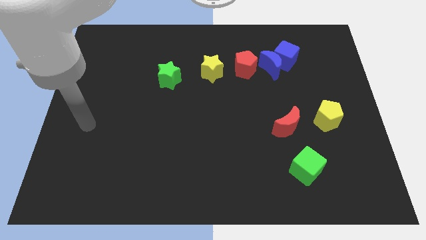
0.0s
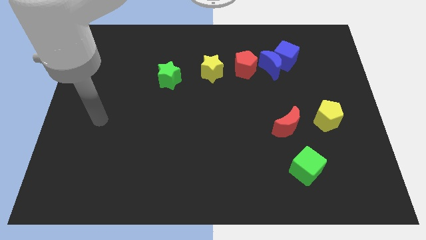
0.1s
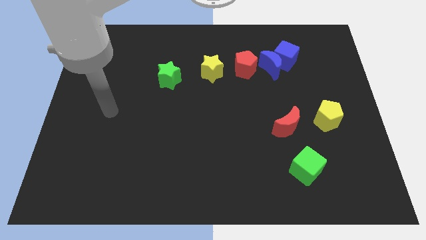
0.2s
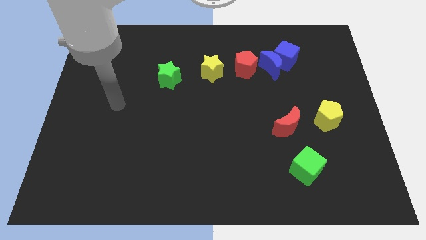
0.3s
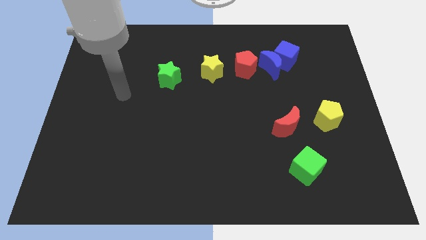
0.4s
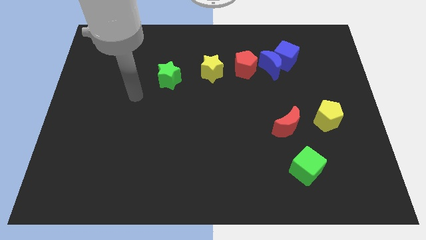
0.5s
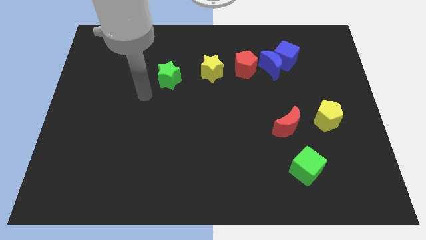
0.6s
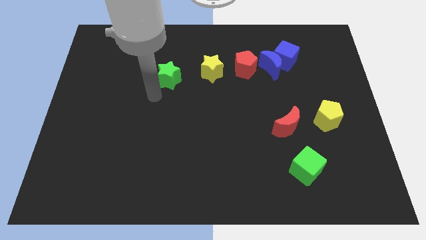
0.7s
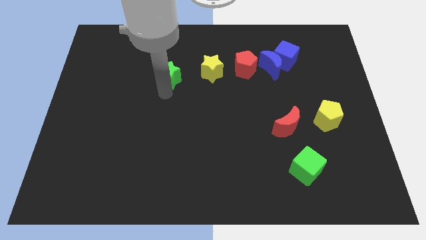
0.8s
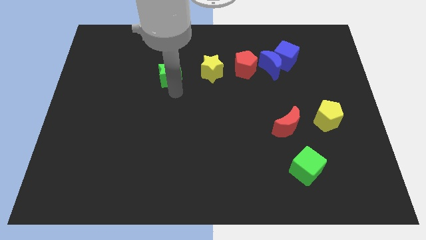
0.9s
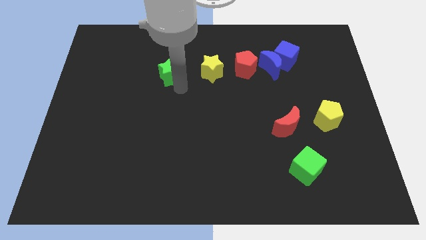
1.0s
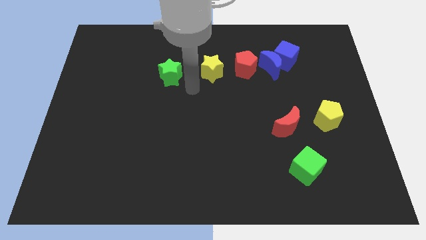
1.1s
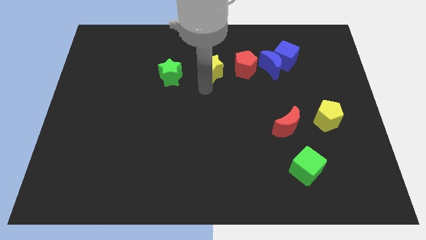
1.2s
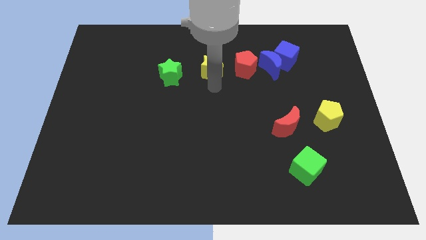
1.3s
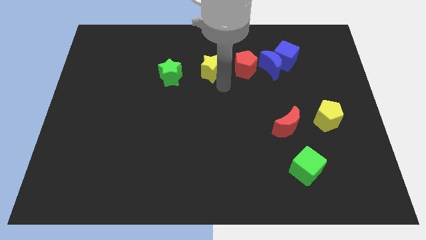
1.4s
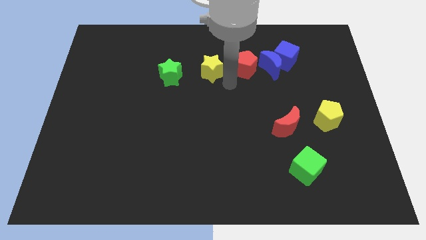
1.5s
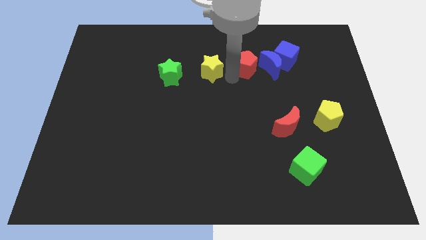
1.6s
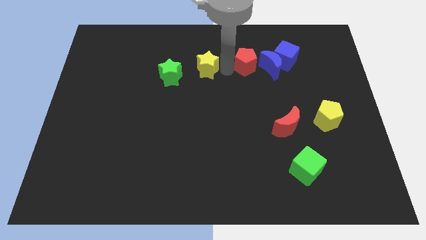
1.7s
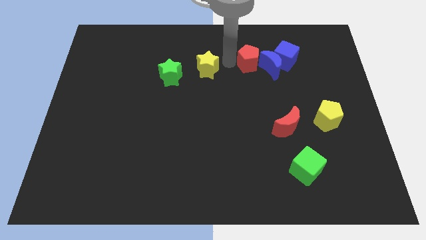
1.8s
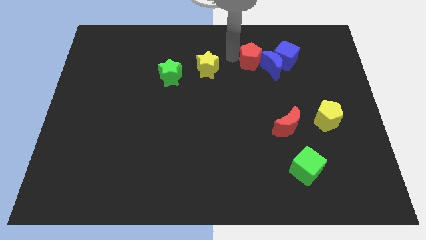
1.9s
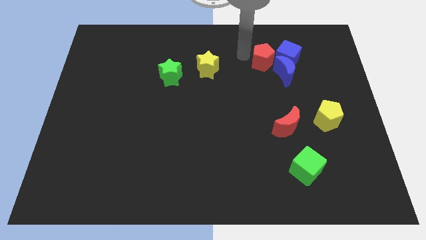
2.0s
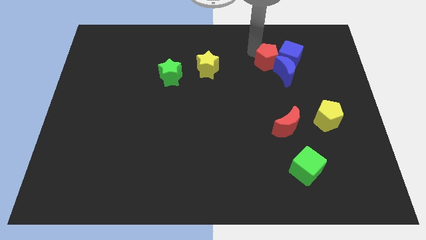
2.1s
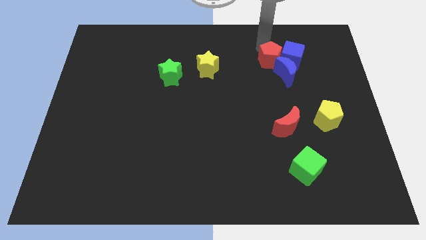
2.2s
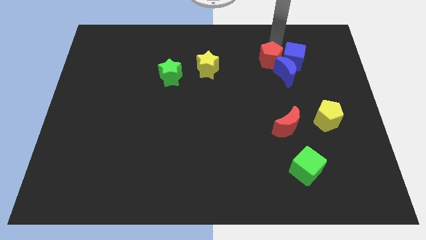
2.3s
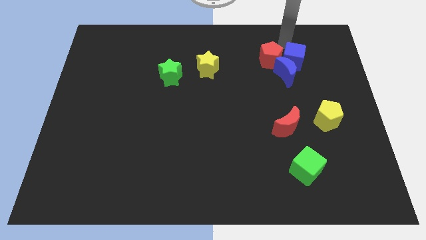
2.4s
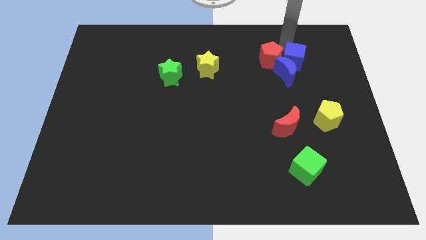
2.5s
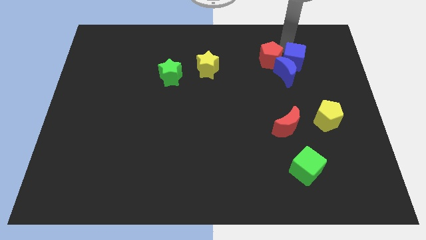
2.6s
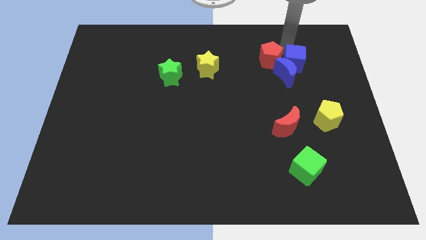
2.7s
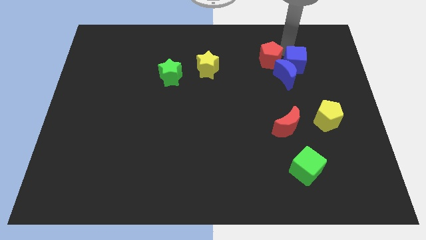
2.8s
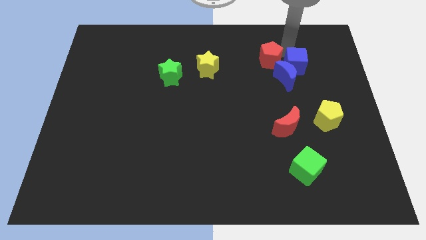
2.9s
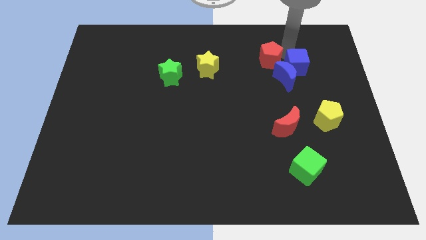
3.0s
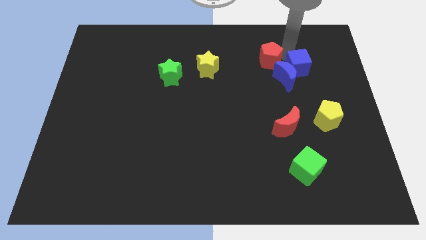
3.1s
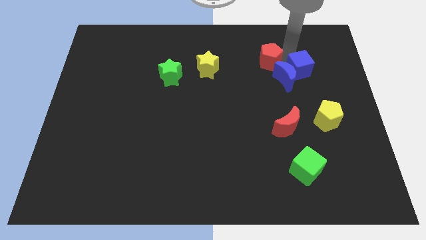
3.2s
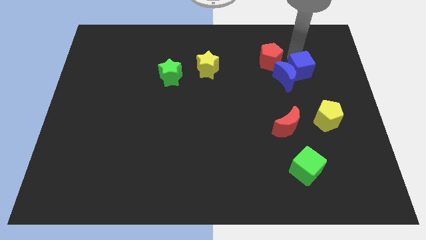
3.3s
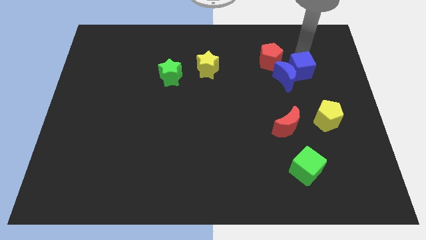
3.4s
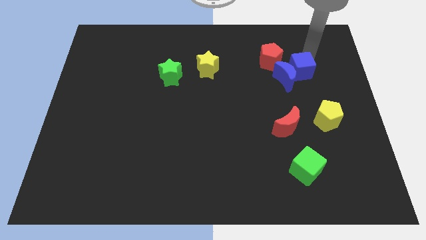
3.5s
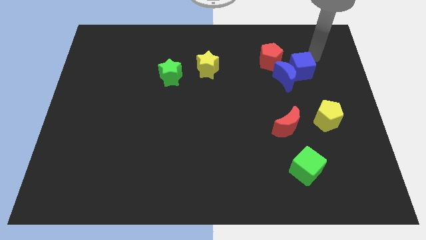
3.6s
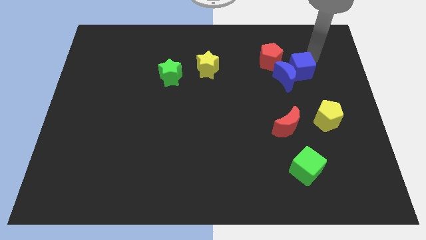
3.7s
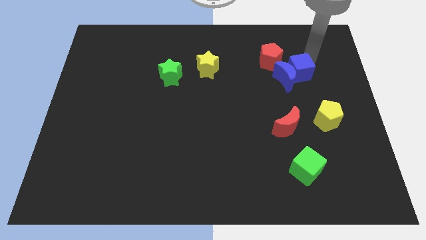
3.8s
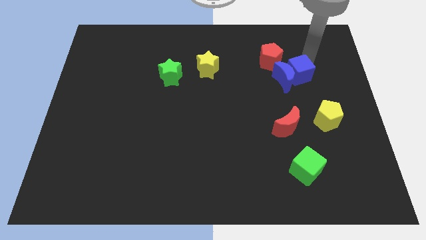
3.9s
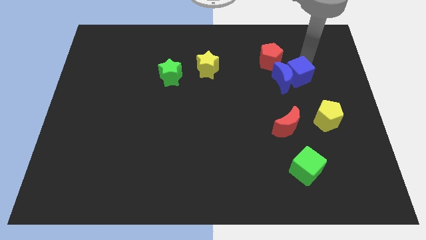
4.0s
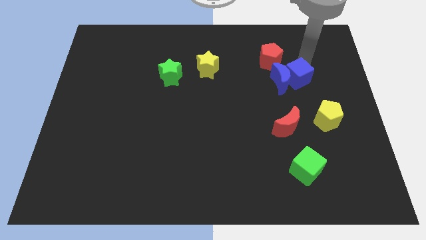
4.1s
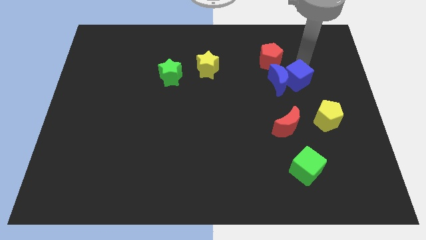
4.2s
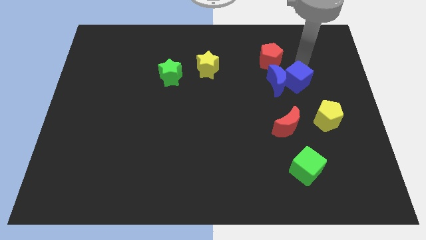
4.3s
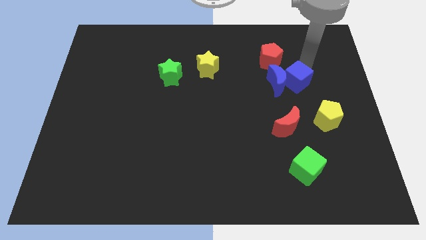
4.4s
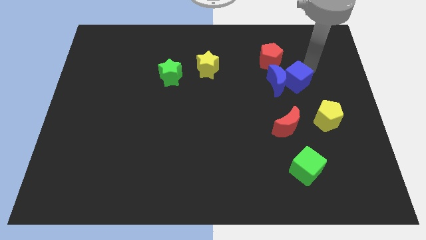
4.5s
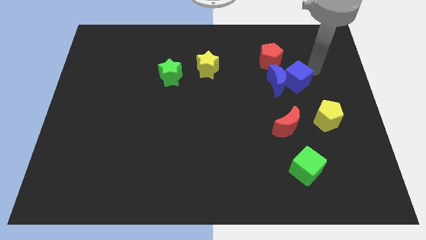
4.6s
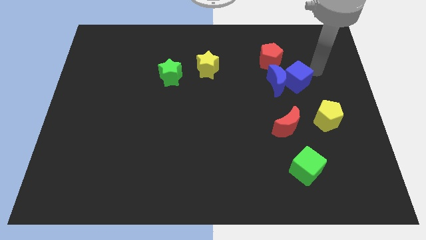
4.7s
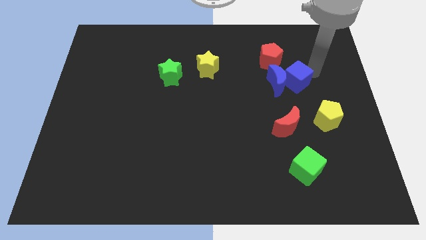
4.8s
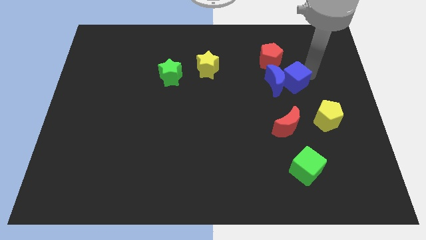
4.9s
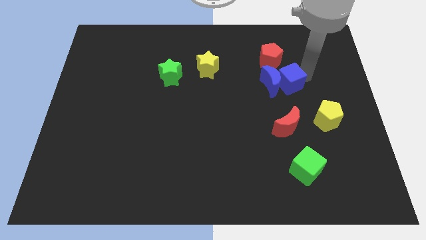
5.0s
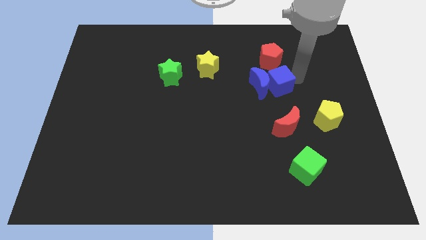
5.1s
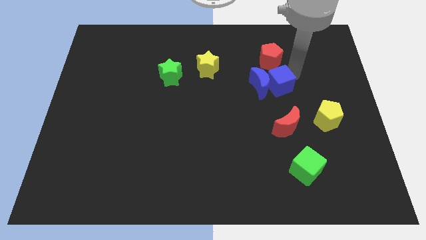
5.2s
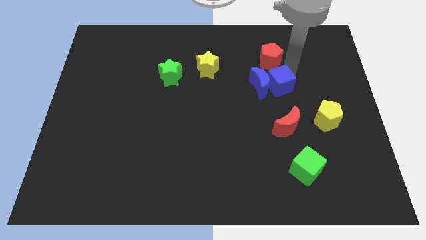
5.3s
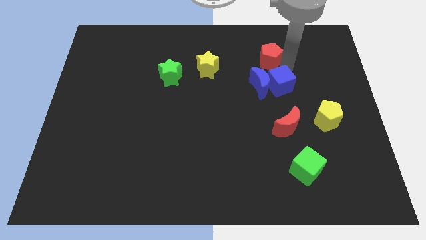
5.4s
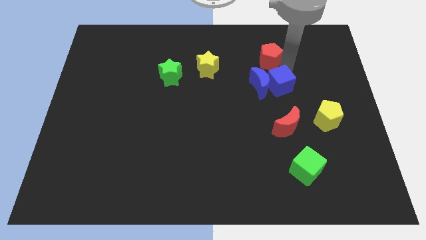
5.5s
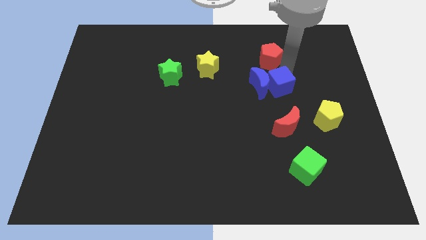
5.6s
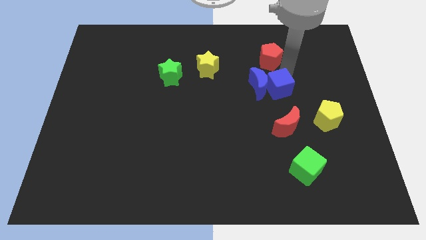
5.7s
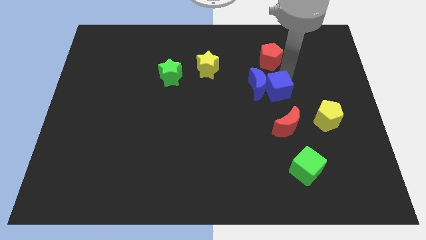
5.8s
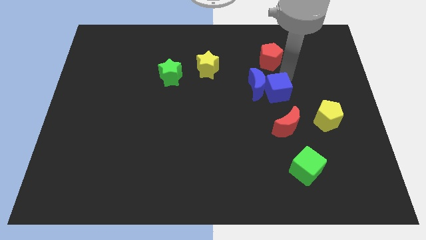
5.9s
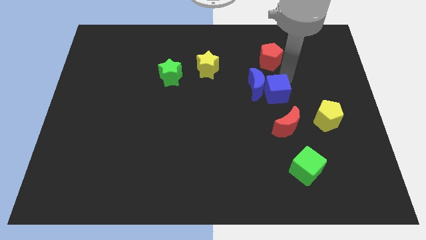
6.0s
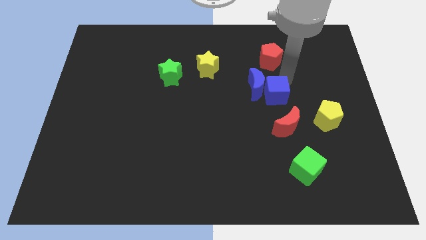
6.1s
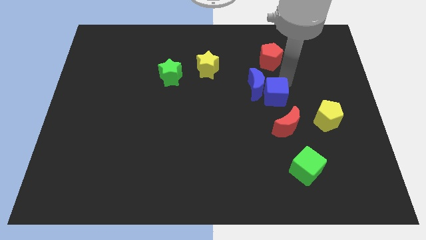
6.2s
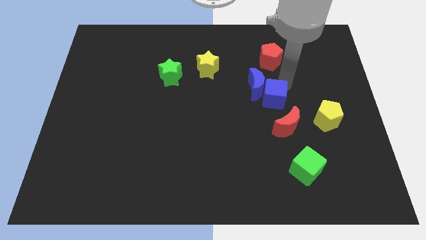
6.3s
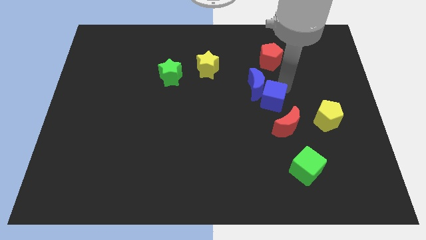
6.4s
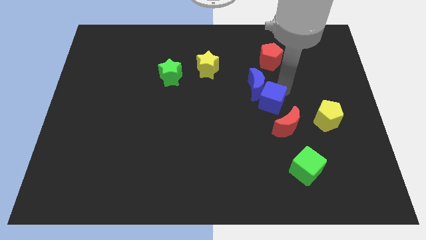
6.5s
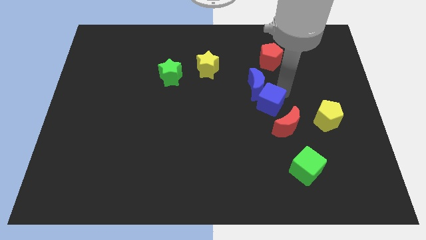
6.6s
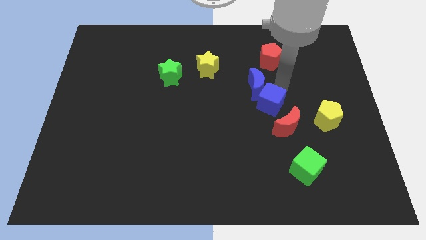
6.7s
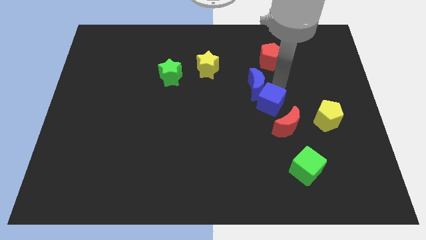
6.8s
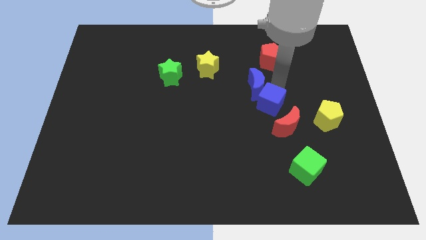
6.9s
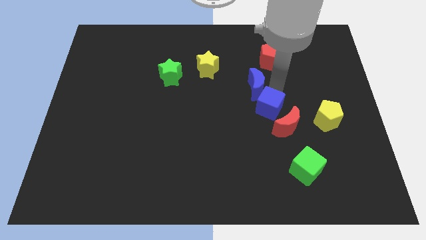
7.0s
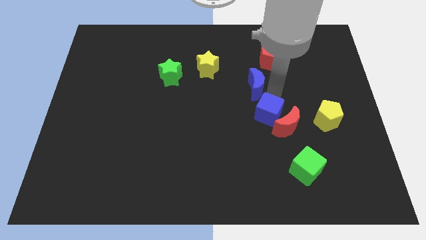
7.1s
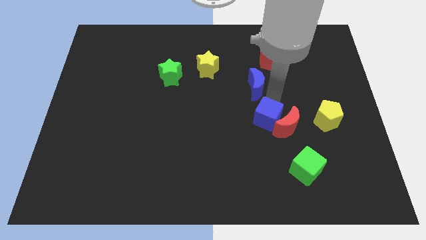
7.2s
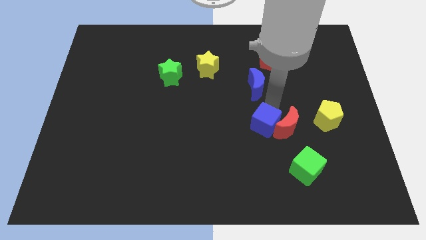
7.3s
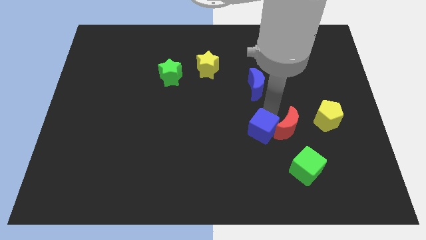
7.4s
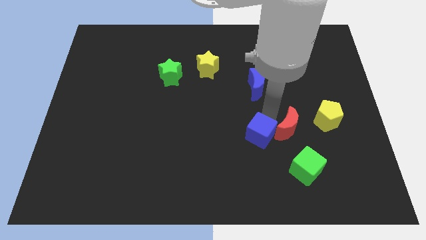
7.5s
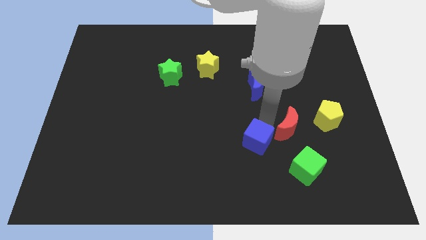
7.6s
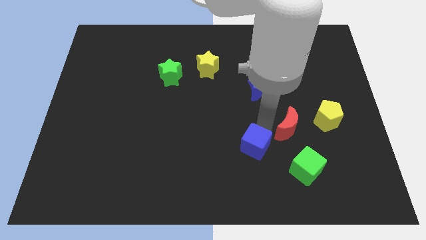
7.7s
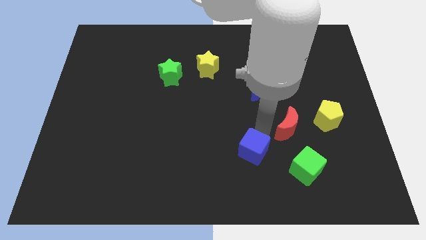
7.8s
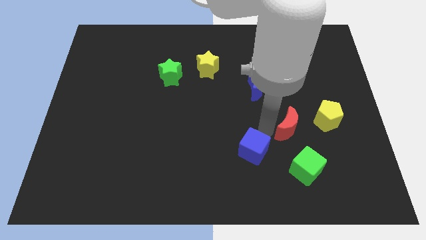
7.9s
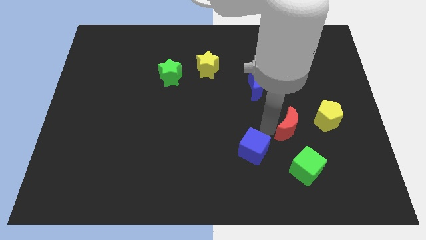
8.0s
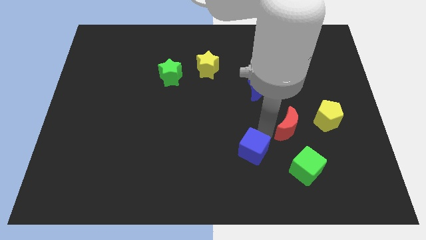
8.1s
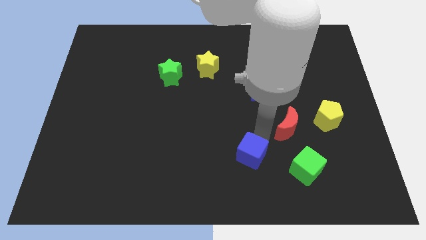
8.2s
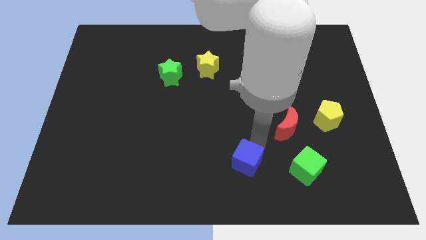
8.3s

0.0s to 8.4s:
put the blue cube to the bottom
